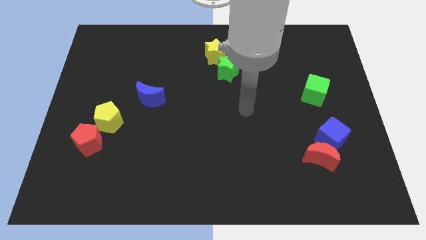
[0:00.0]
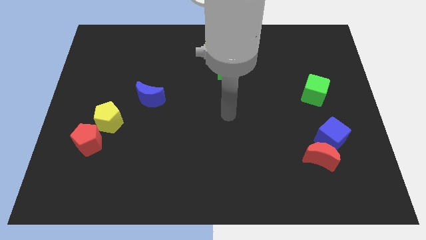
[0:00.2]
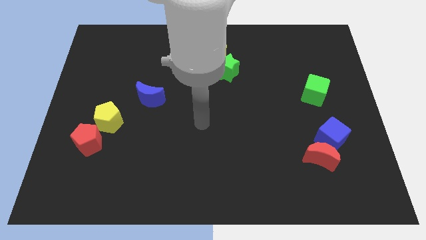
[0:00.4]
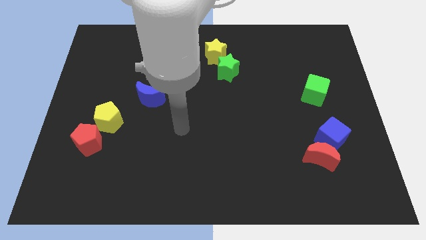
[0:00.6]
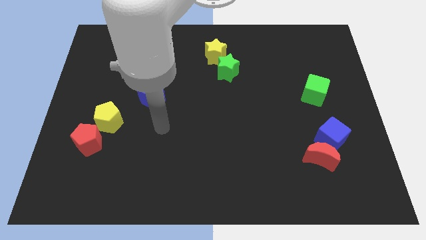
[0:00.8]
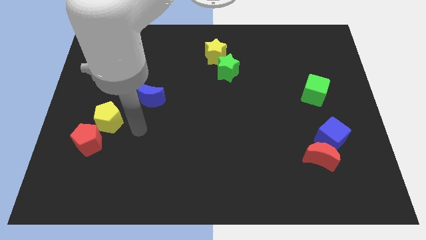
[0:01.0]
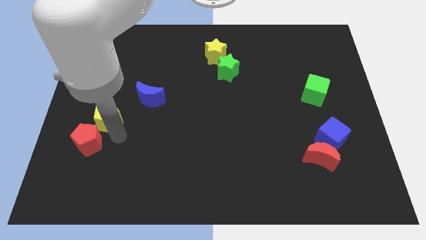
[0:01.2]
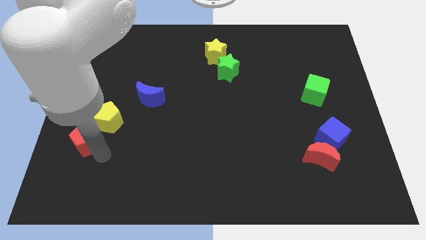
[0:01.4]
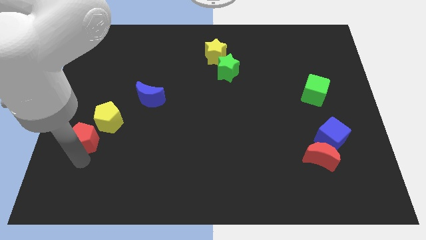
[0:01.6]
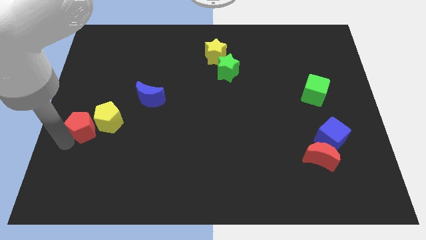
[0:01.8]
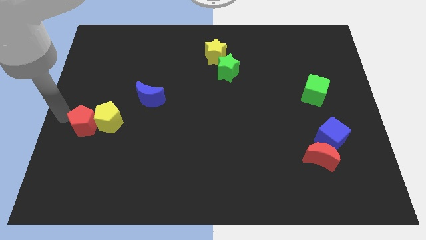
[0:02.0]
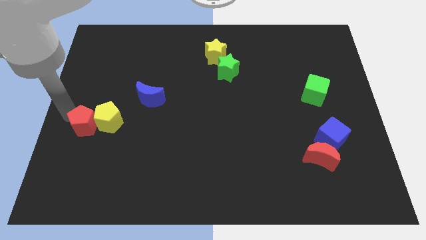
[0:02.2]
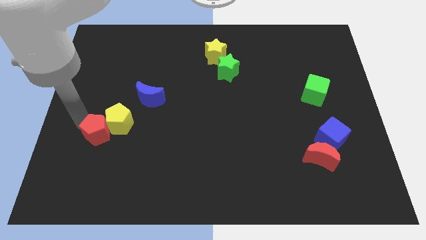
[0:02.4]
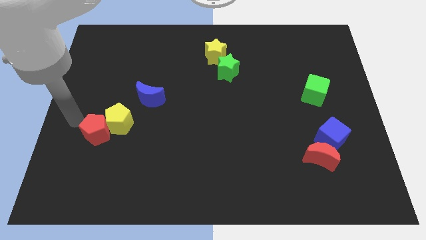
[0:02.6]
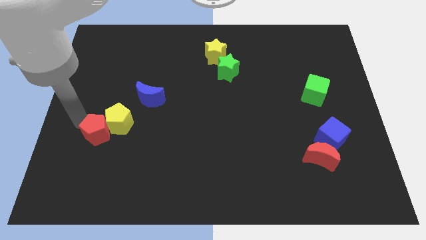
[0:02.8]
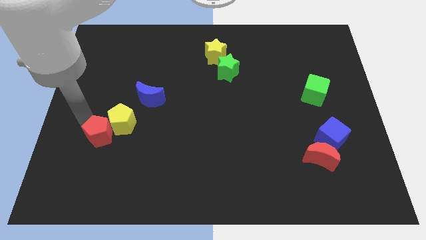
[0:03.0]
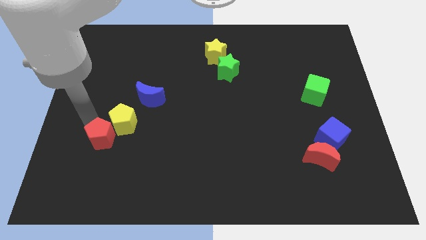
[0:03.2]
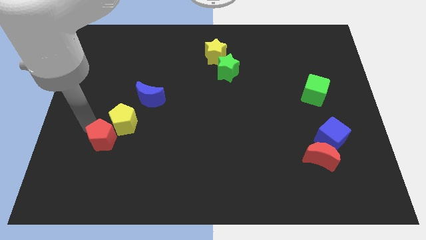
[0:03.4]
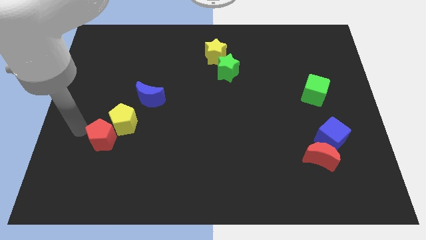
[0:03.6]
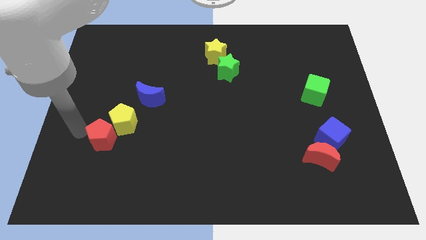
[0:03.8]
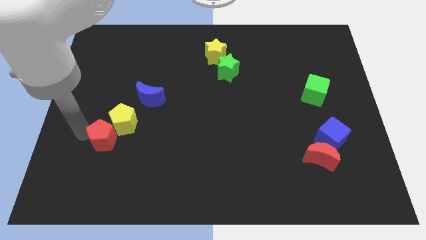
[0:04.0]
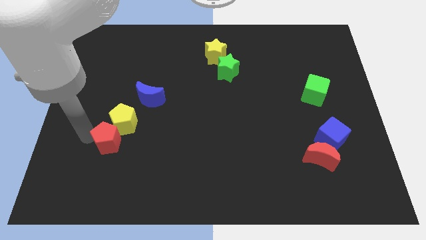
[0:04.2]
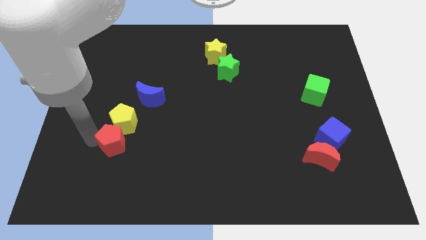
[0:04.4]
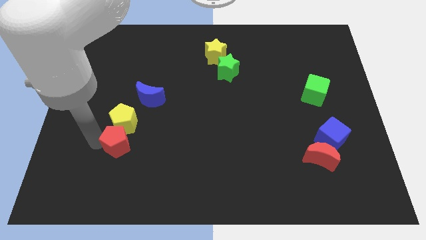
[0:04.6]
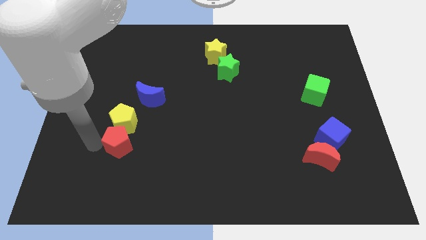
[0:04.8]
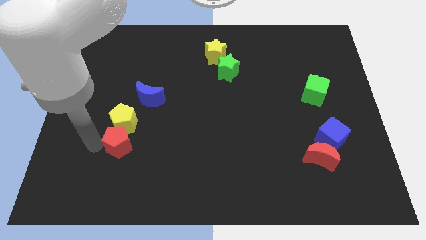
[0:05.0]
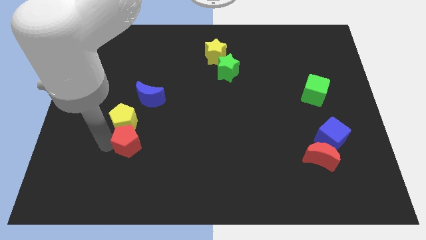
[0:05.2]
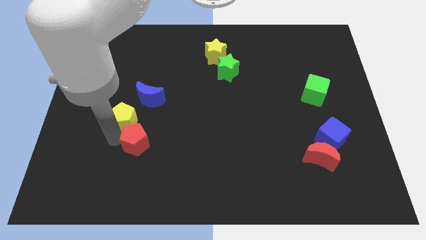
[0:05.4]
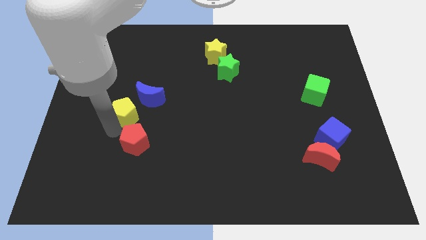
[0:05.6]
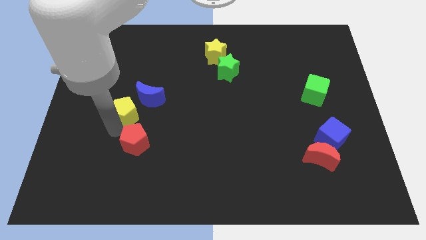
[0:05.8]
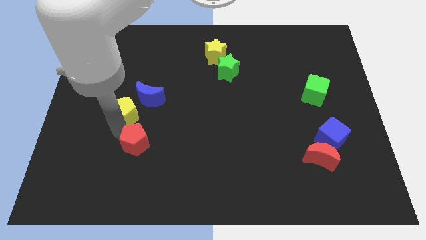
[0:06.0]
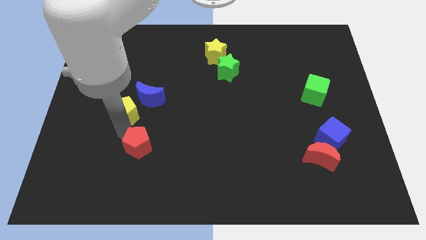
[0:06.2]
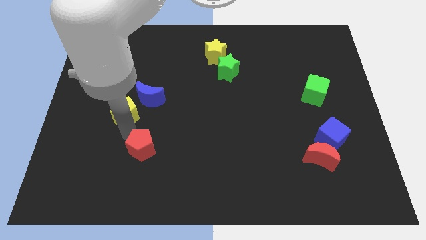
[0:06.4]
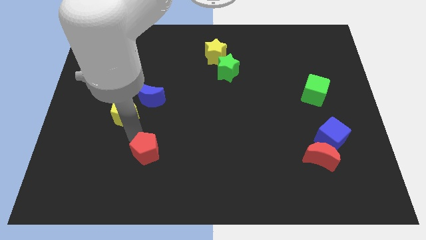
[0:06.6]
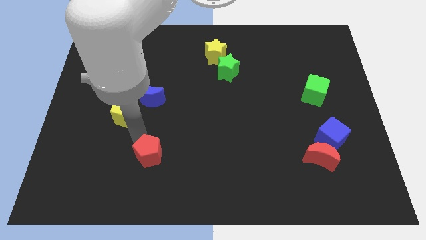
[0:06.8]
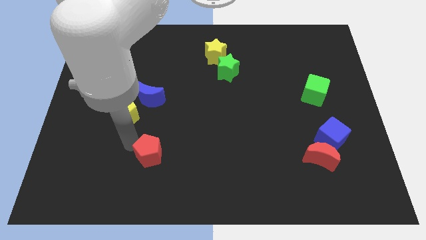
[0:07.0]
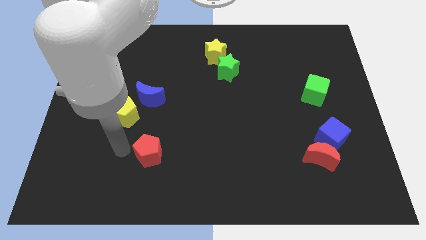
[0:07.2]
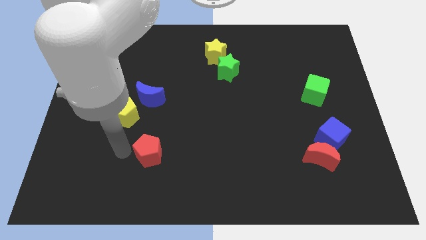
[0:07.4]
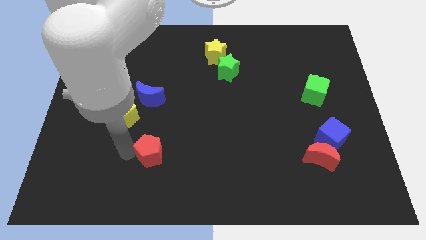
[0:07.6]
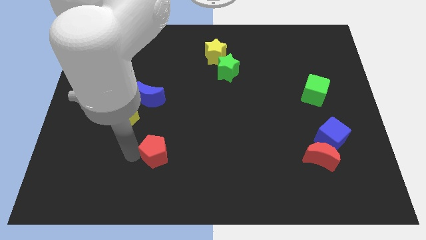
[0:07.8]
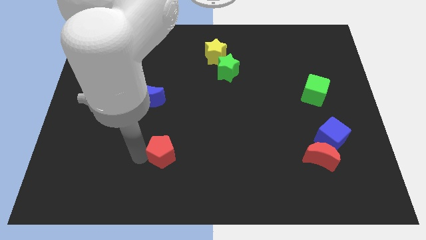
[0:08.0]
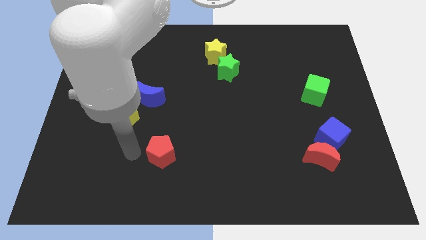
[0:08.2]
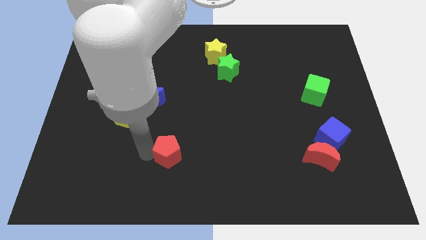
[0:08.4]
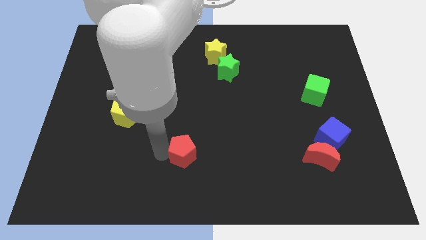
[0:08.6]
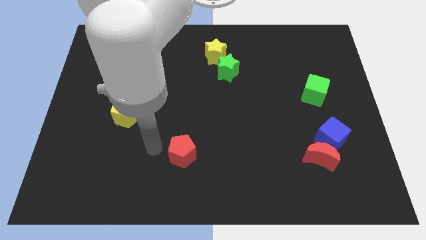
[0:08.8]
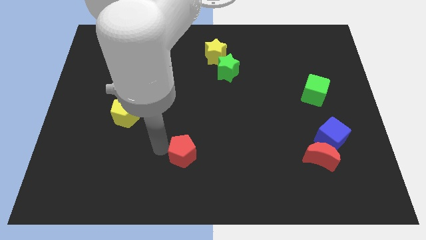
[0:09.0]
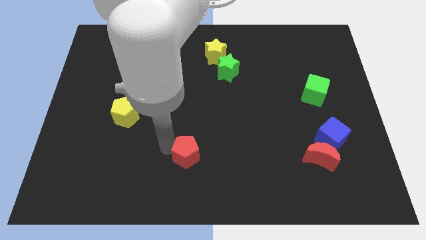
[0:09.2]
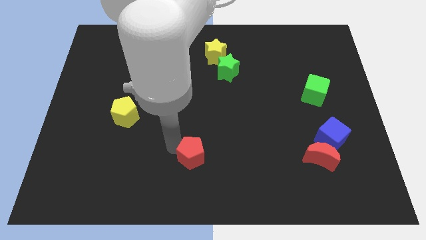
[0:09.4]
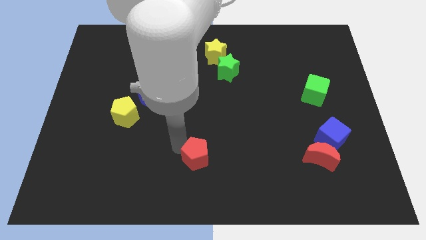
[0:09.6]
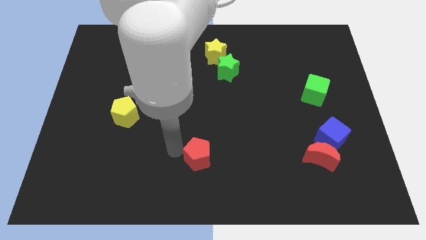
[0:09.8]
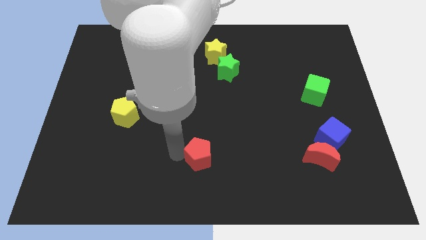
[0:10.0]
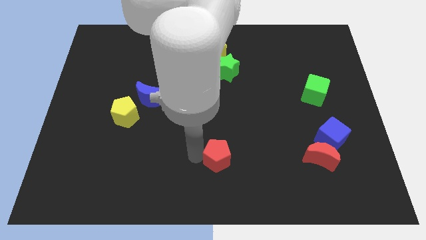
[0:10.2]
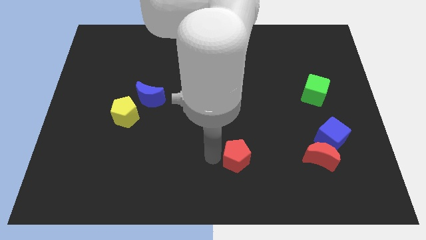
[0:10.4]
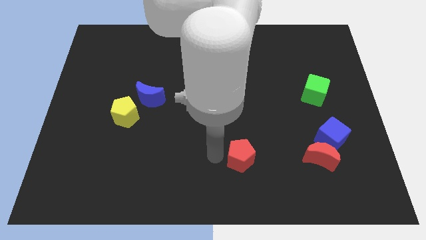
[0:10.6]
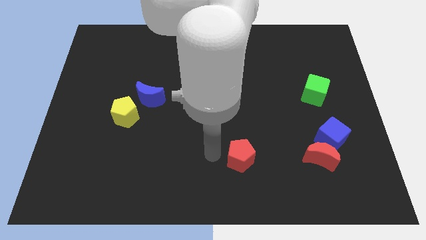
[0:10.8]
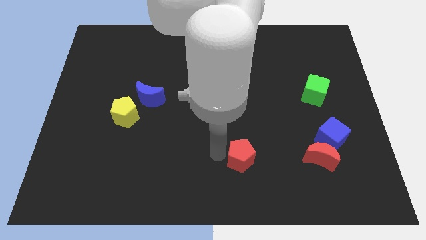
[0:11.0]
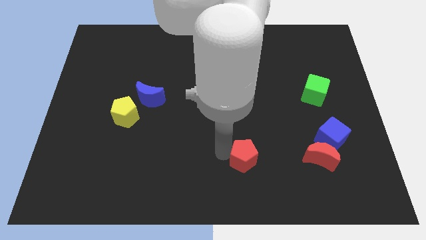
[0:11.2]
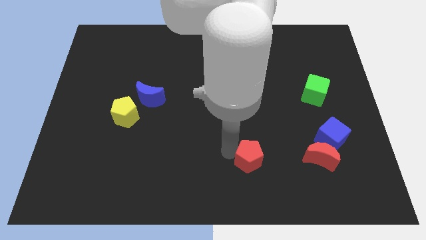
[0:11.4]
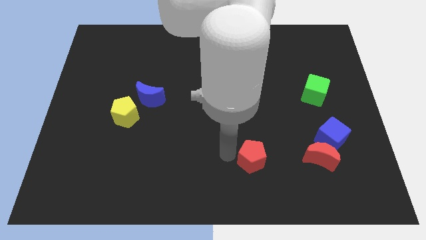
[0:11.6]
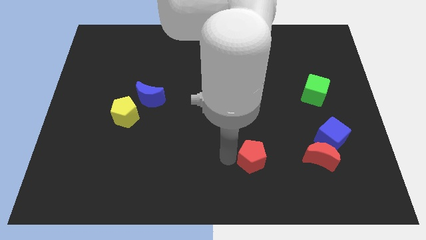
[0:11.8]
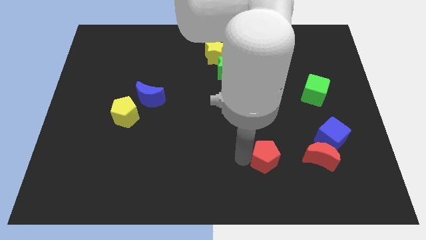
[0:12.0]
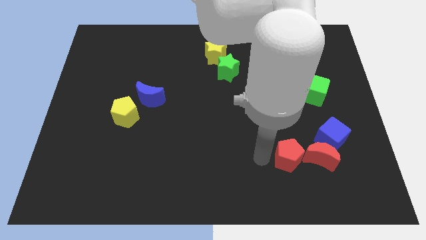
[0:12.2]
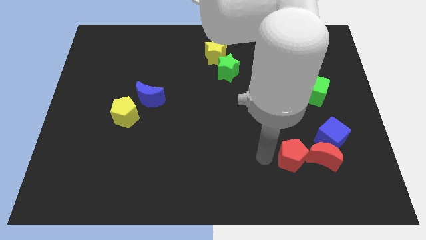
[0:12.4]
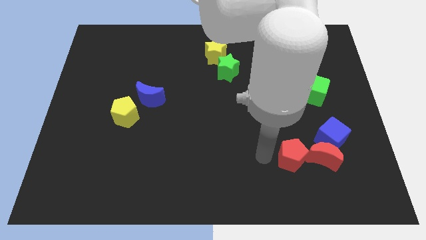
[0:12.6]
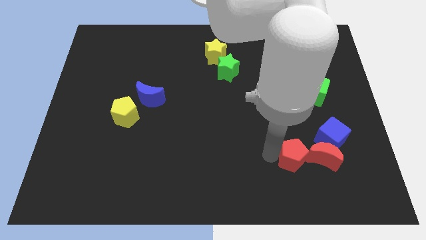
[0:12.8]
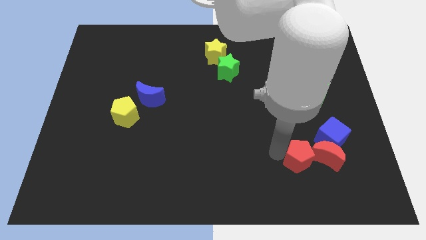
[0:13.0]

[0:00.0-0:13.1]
move the red pentagon to the red moon
